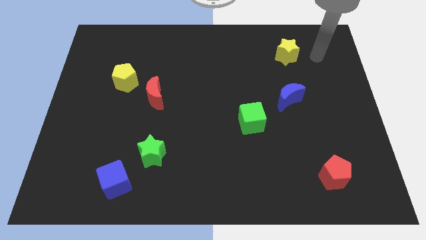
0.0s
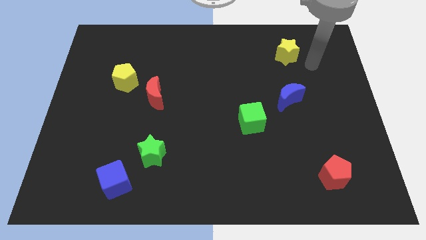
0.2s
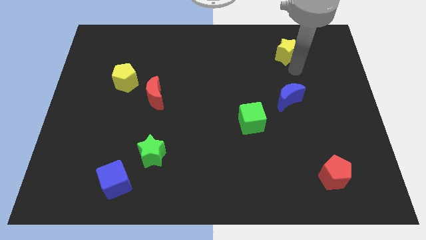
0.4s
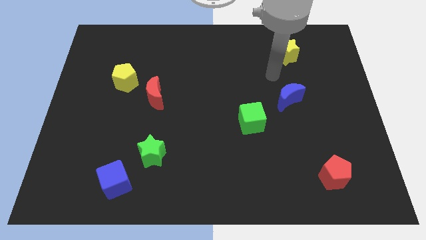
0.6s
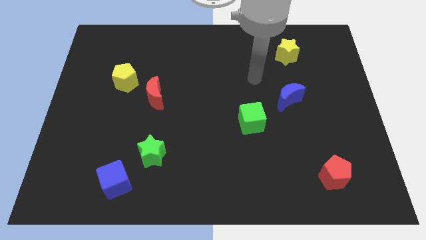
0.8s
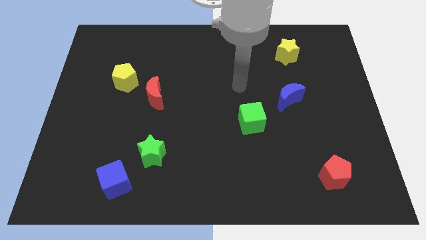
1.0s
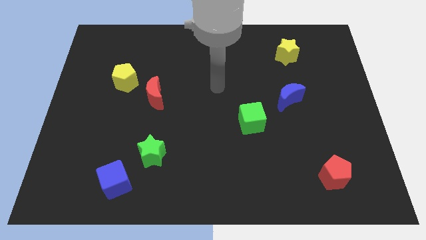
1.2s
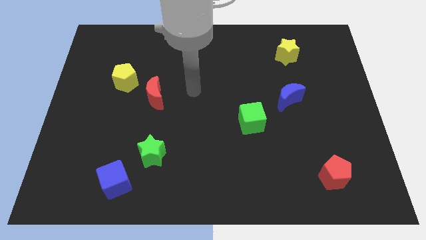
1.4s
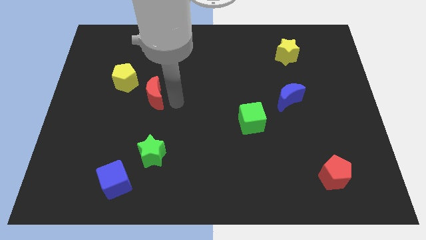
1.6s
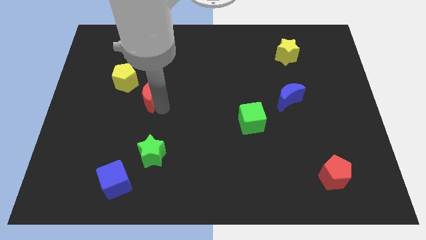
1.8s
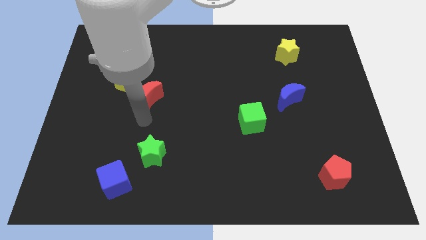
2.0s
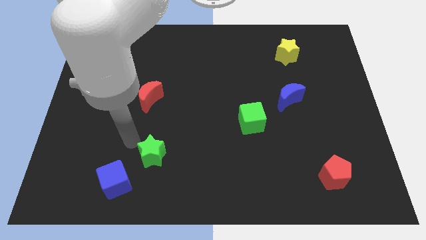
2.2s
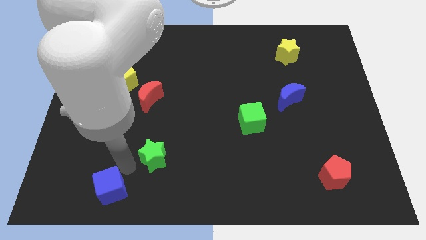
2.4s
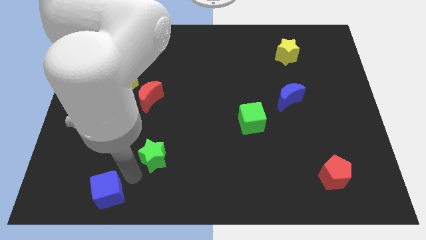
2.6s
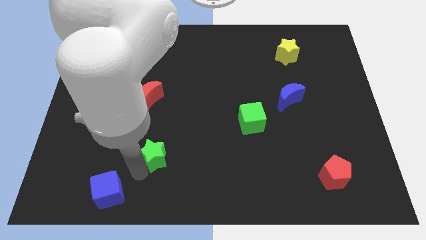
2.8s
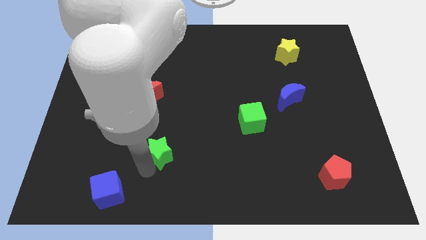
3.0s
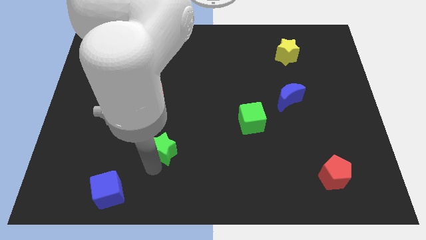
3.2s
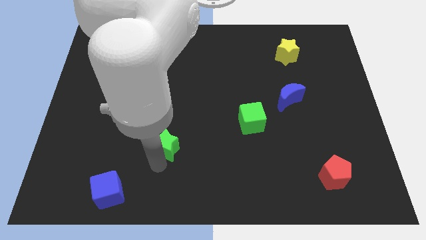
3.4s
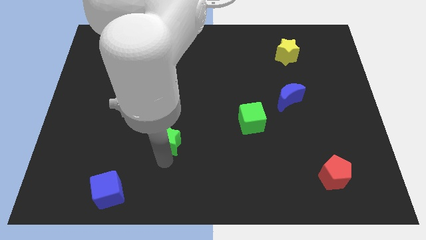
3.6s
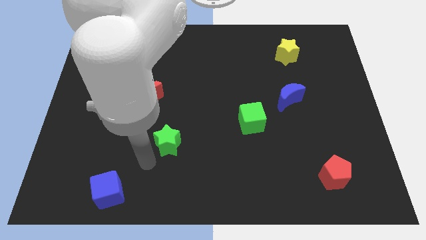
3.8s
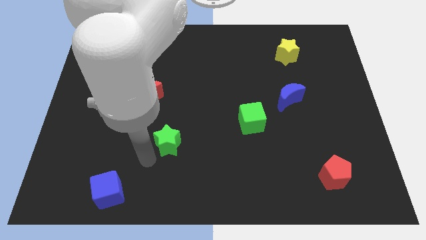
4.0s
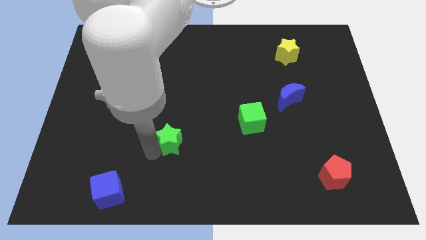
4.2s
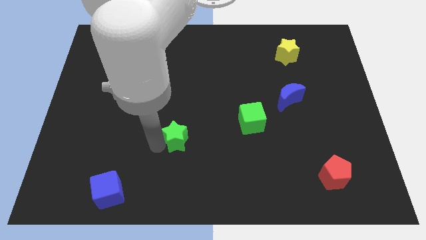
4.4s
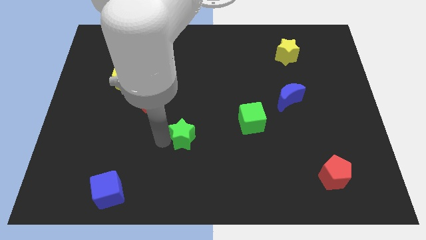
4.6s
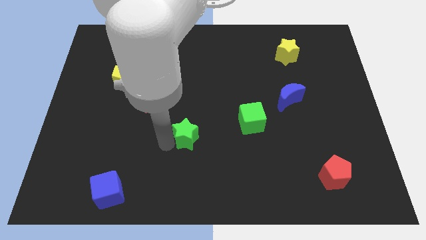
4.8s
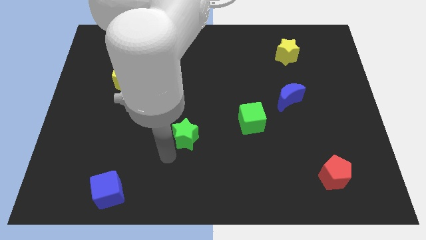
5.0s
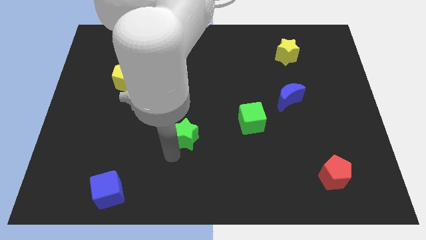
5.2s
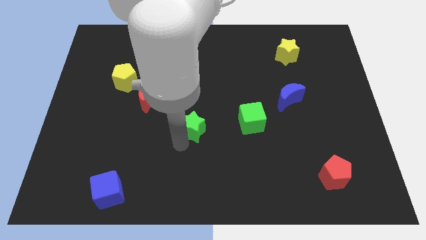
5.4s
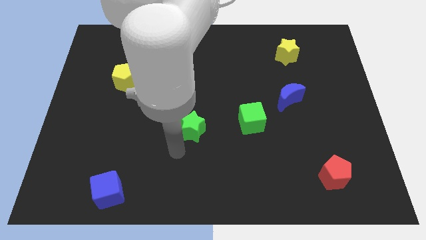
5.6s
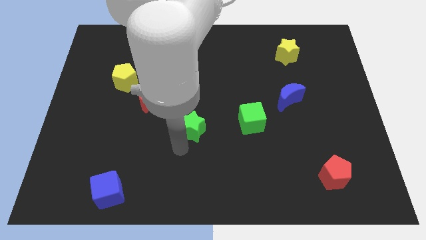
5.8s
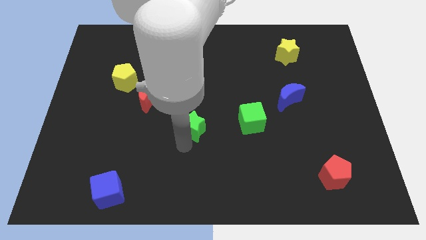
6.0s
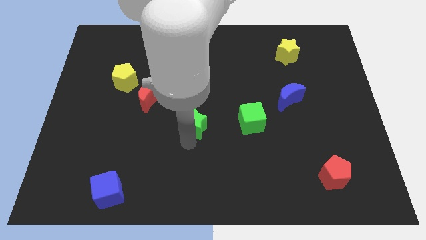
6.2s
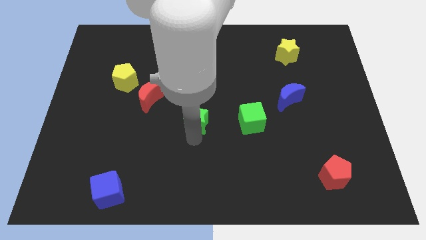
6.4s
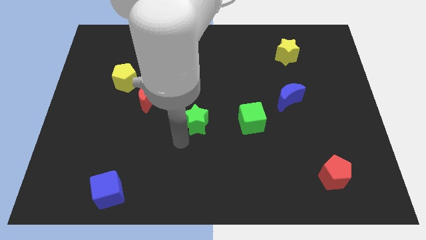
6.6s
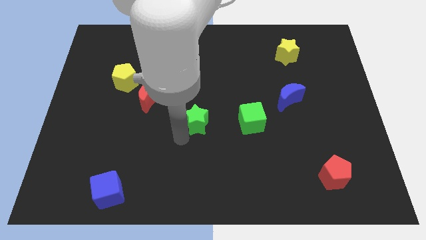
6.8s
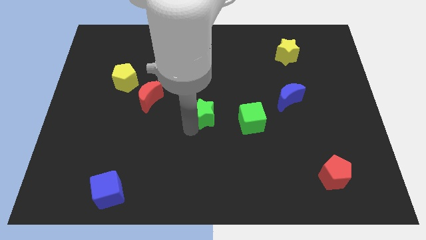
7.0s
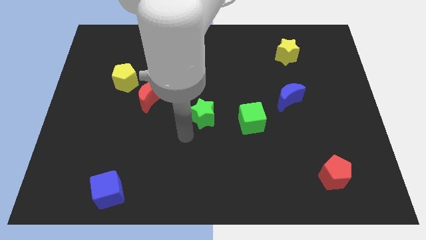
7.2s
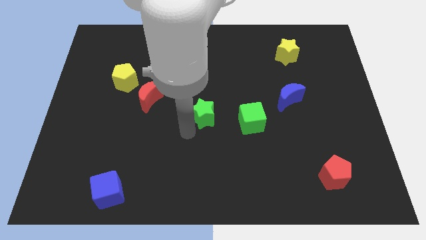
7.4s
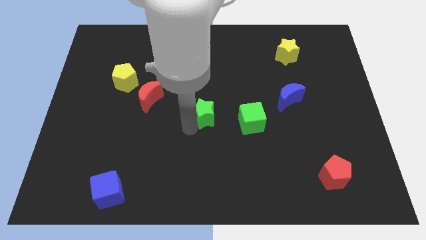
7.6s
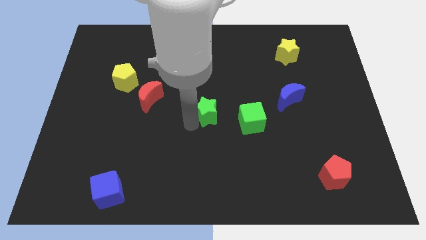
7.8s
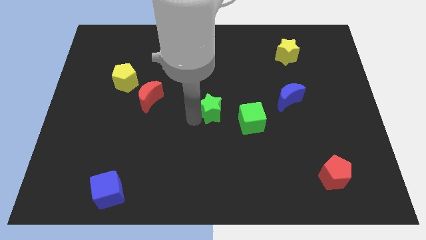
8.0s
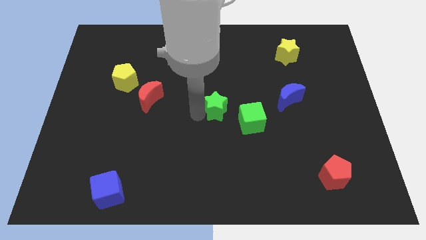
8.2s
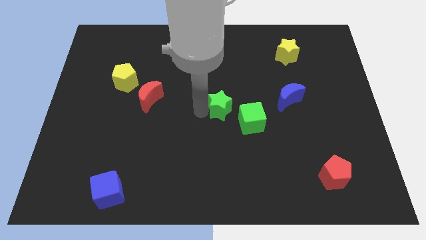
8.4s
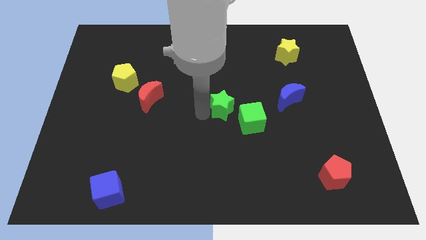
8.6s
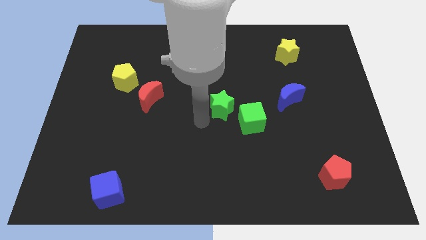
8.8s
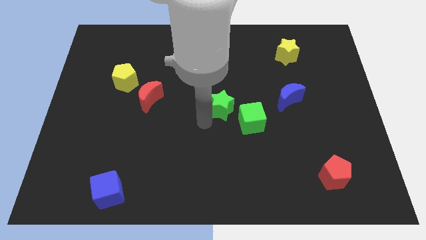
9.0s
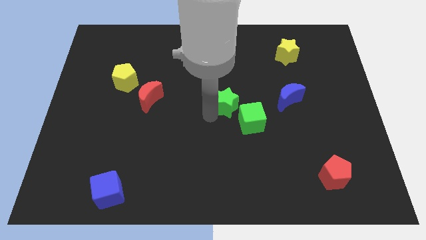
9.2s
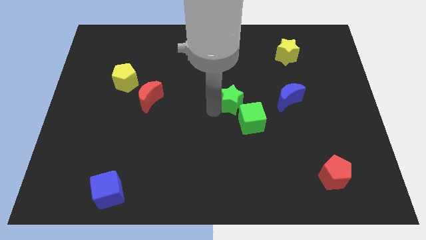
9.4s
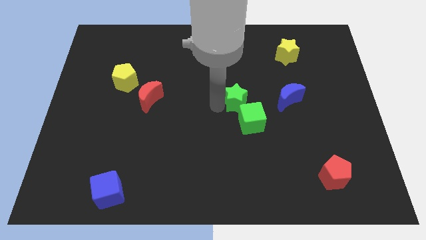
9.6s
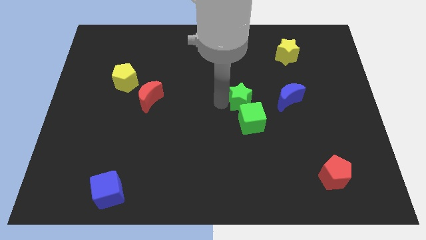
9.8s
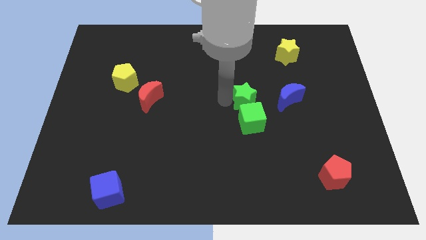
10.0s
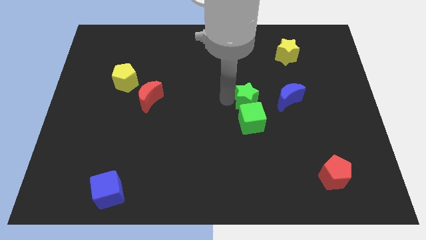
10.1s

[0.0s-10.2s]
put the green star diagonally up and to the right of the green cube

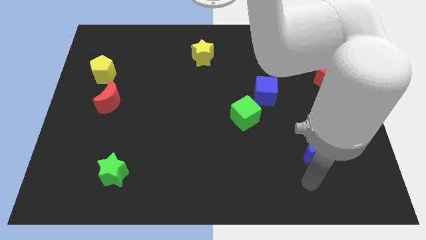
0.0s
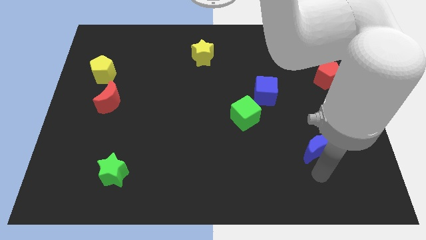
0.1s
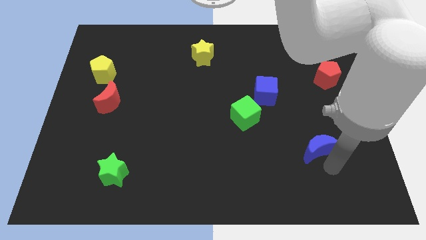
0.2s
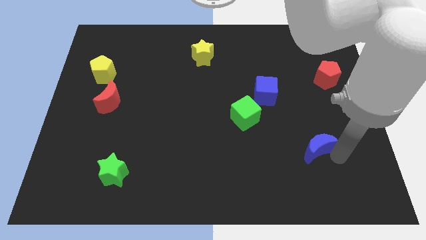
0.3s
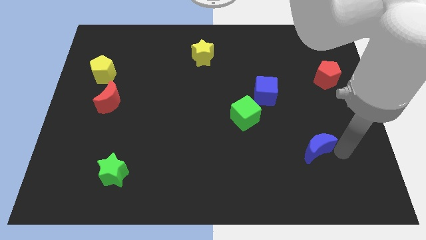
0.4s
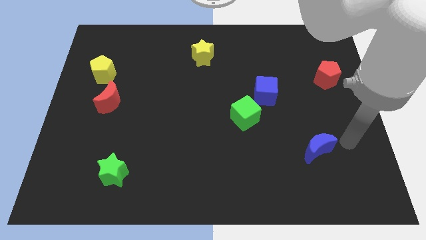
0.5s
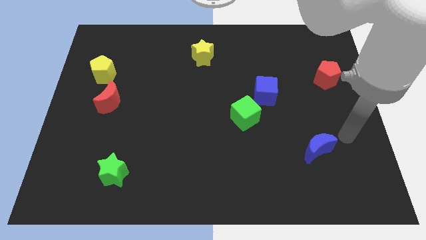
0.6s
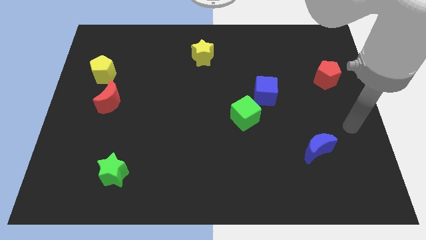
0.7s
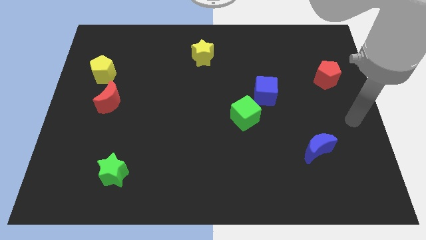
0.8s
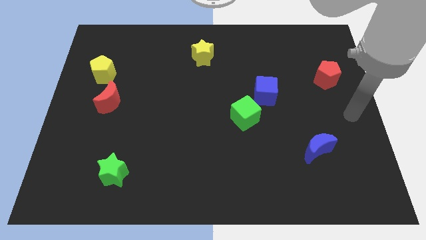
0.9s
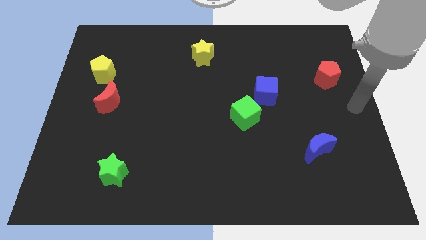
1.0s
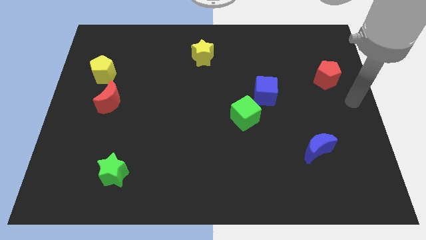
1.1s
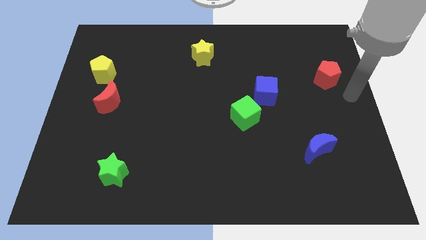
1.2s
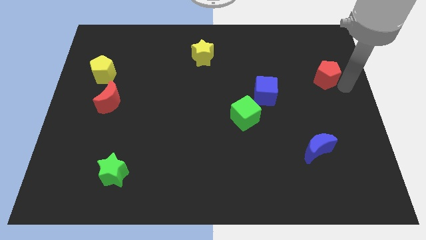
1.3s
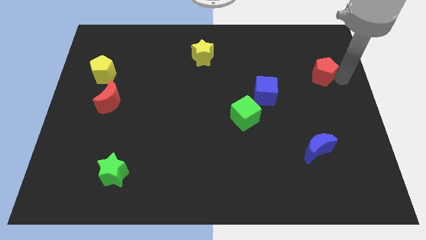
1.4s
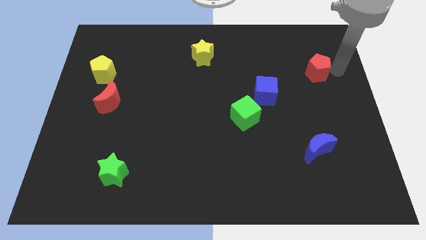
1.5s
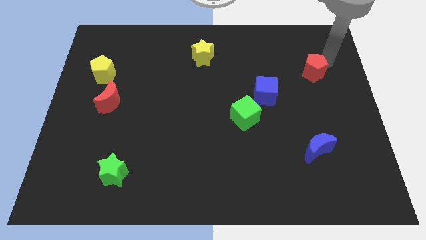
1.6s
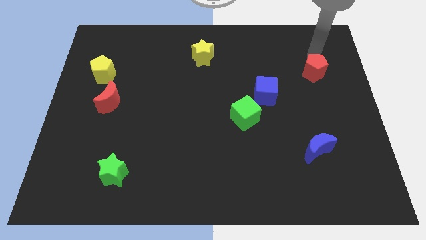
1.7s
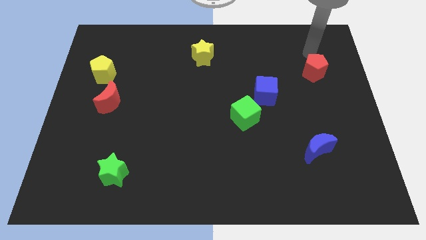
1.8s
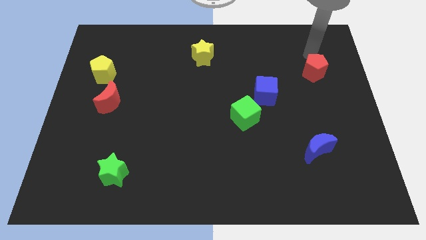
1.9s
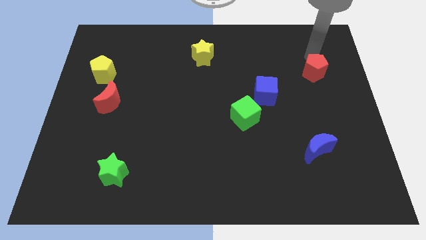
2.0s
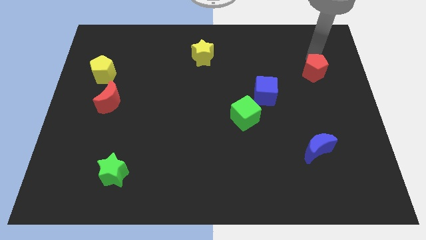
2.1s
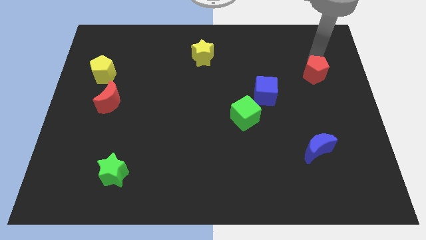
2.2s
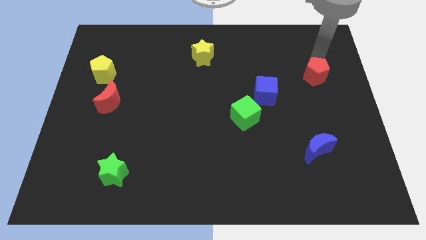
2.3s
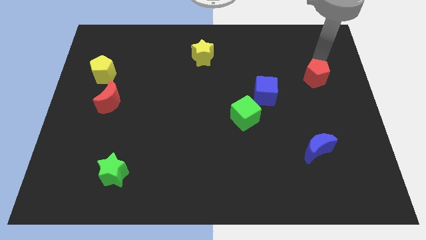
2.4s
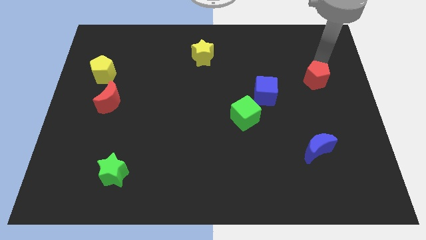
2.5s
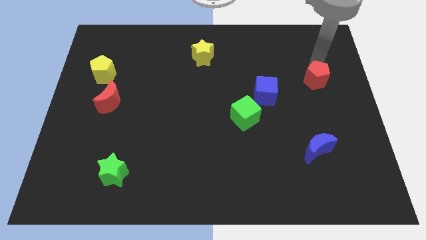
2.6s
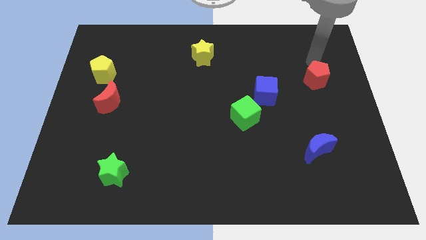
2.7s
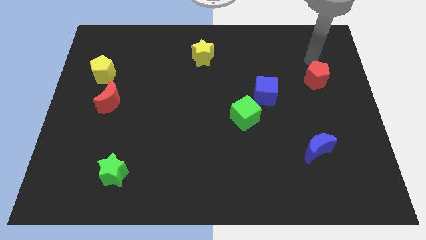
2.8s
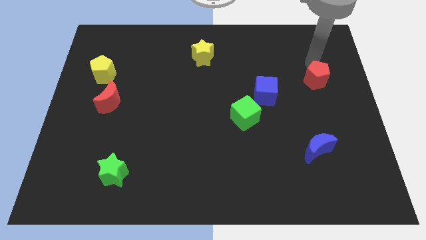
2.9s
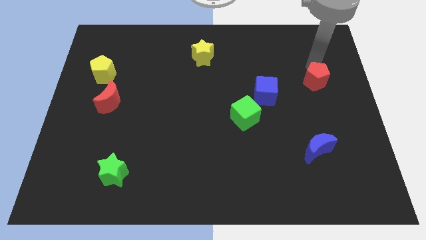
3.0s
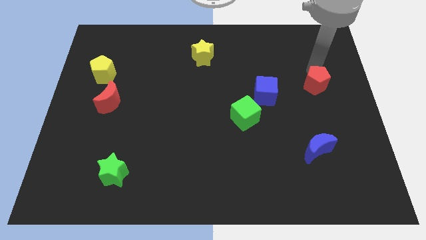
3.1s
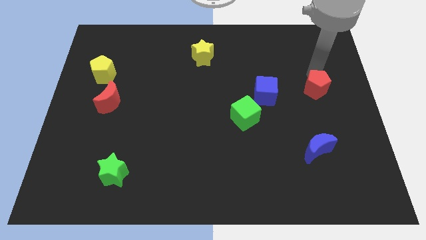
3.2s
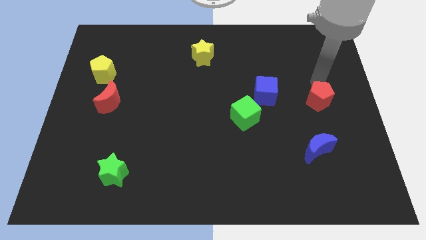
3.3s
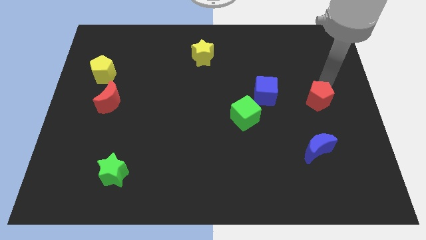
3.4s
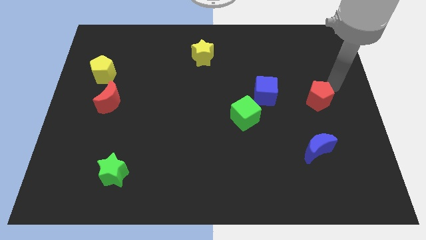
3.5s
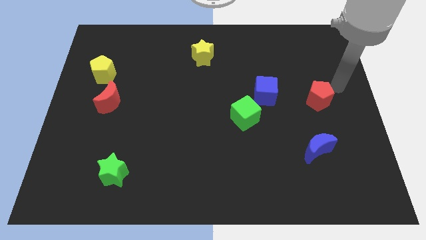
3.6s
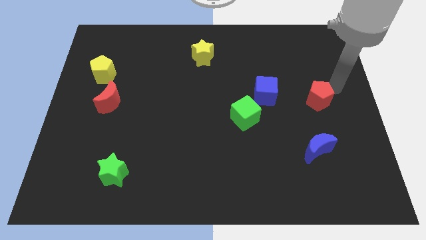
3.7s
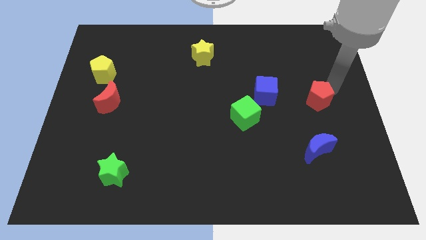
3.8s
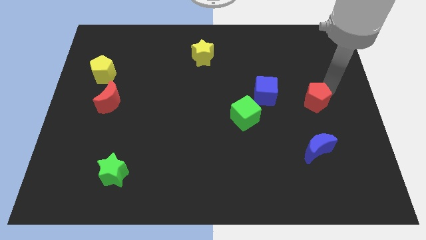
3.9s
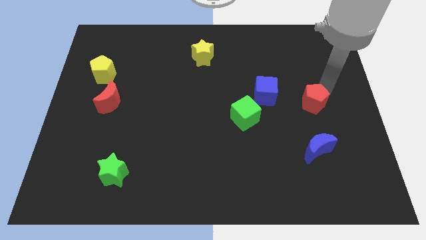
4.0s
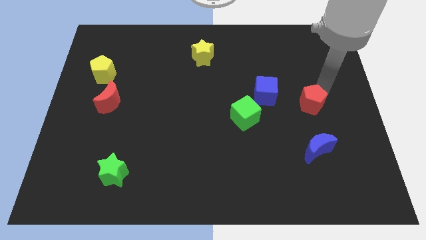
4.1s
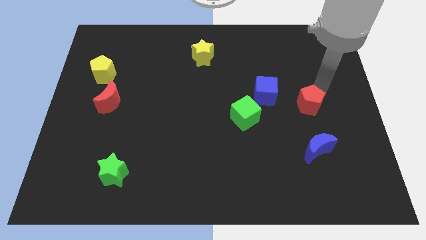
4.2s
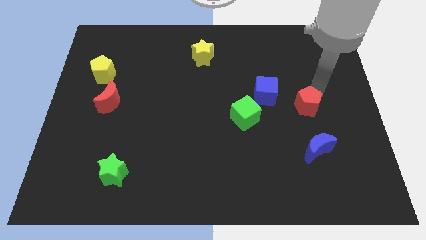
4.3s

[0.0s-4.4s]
push the red pentagon to the right of the green cube
